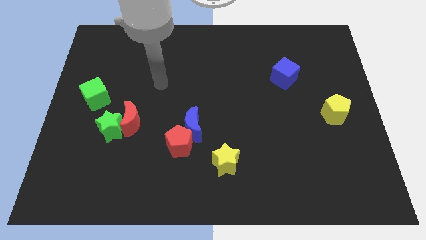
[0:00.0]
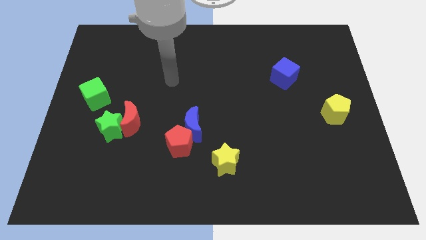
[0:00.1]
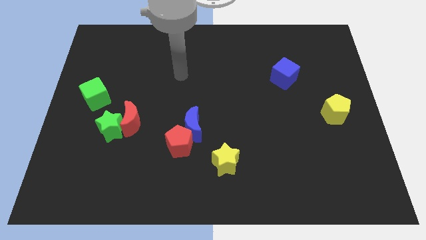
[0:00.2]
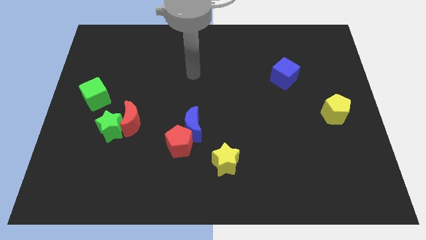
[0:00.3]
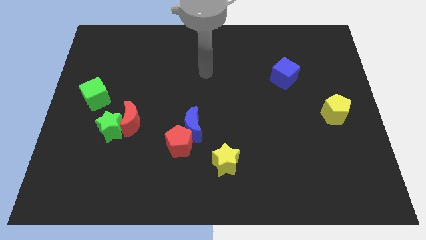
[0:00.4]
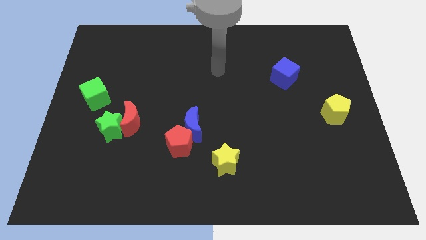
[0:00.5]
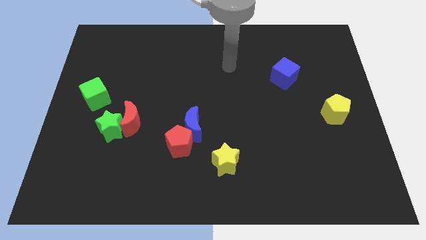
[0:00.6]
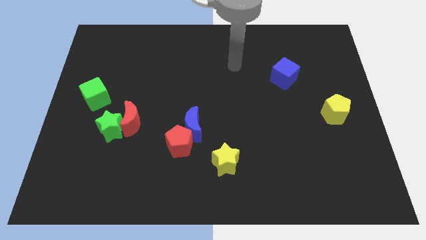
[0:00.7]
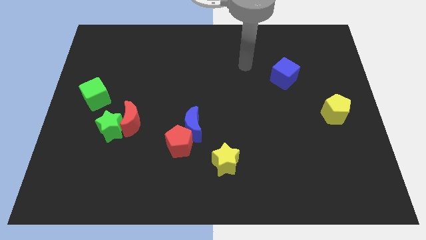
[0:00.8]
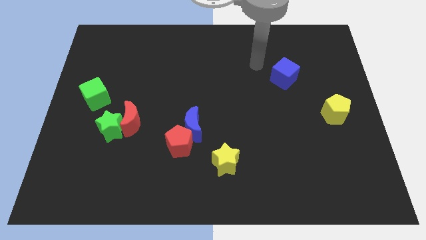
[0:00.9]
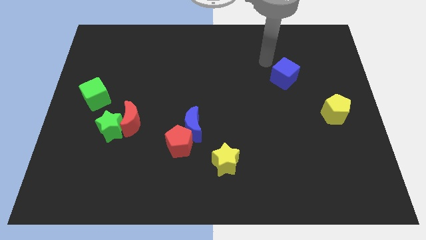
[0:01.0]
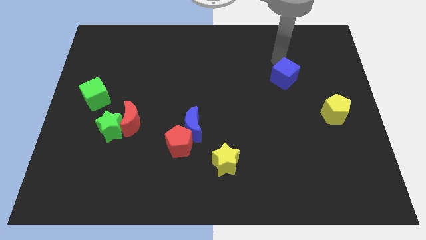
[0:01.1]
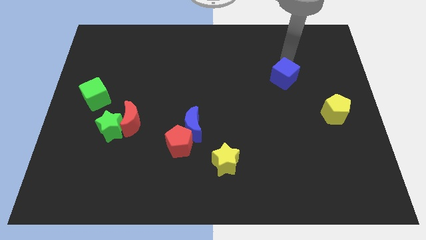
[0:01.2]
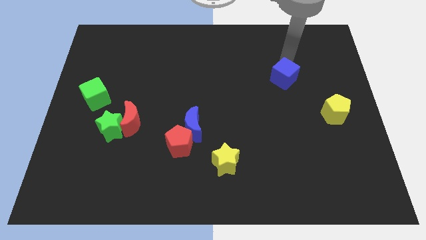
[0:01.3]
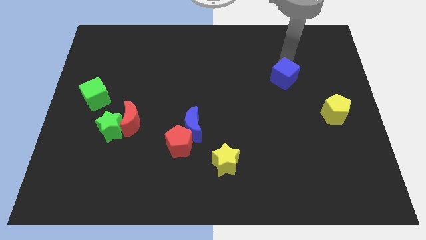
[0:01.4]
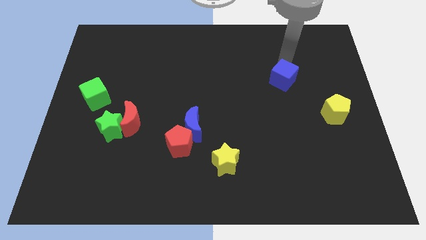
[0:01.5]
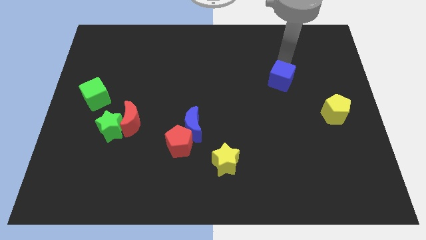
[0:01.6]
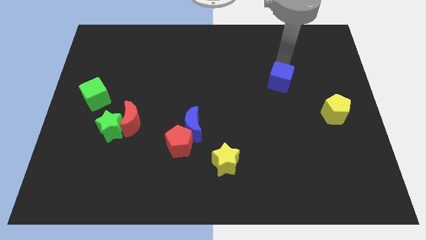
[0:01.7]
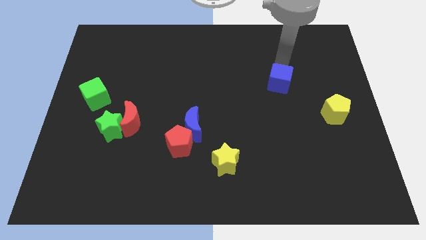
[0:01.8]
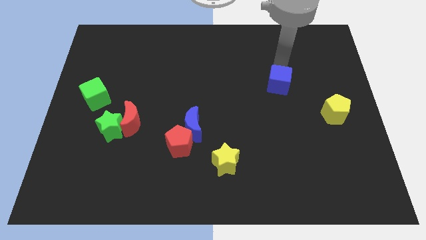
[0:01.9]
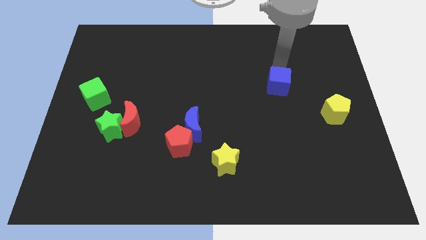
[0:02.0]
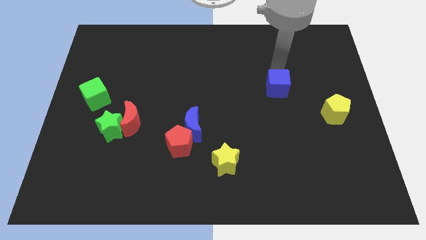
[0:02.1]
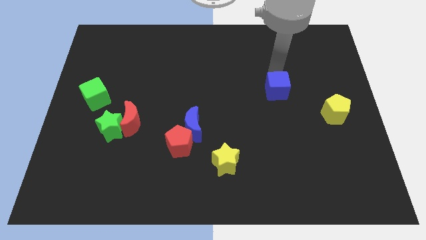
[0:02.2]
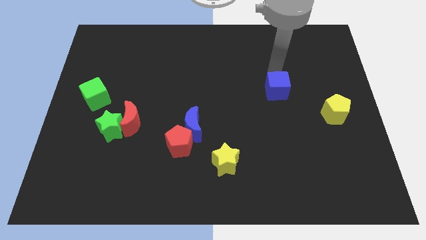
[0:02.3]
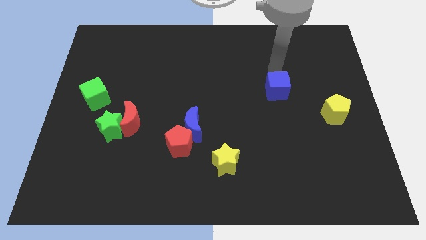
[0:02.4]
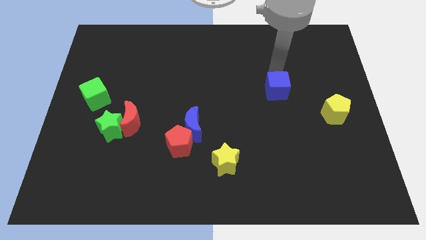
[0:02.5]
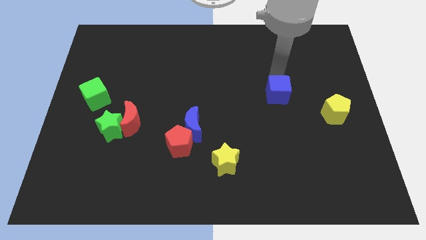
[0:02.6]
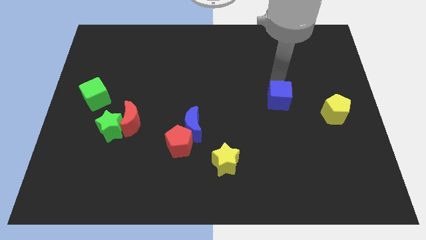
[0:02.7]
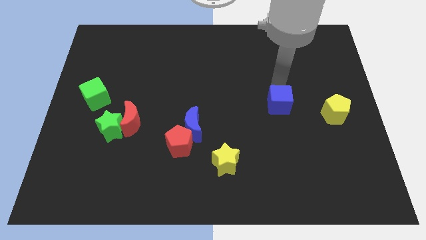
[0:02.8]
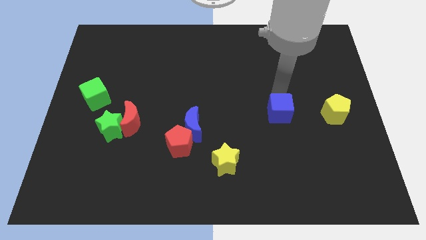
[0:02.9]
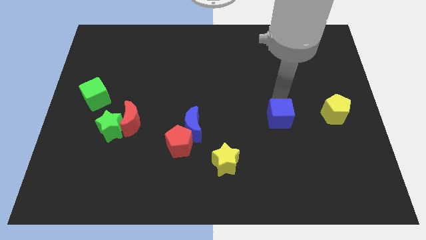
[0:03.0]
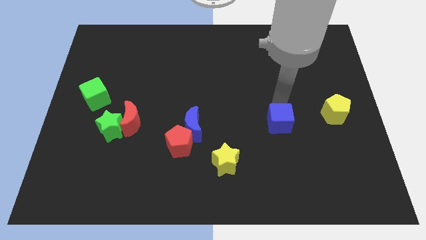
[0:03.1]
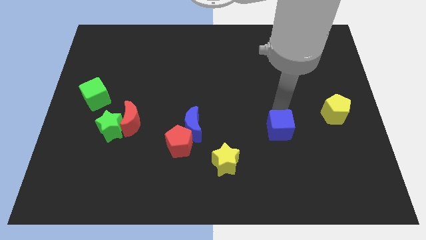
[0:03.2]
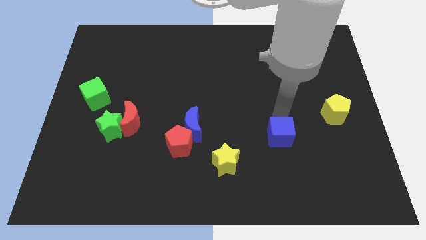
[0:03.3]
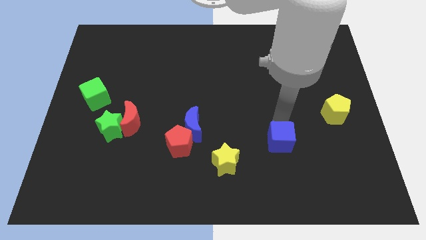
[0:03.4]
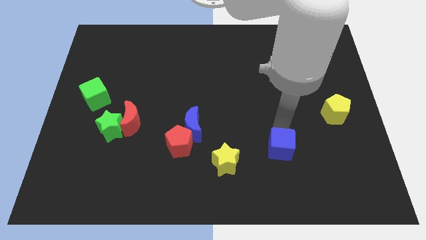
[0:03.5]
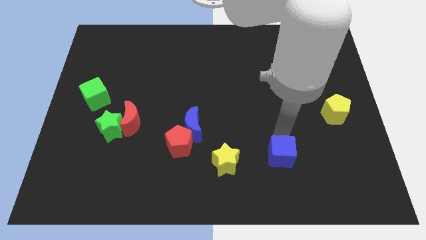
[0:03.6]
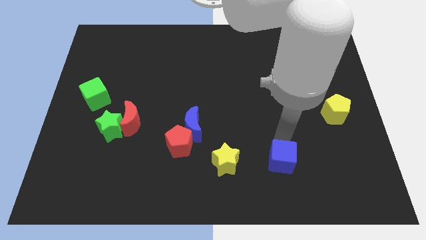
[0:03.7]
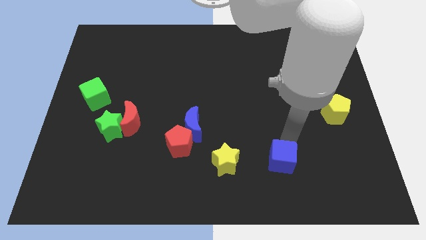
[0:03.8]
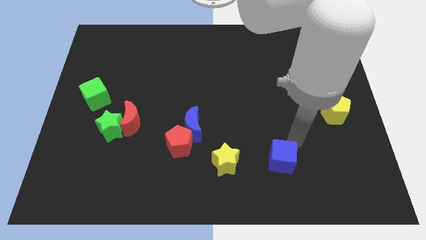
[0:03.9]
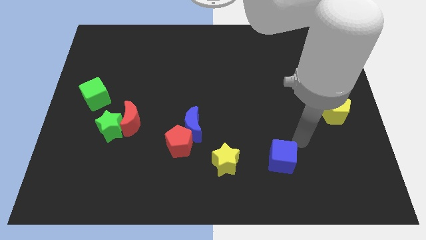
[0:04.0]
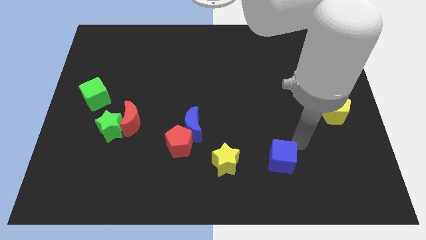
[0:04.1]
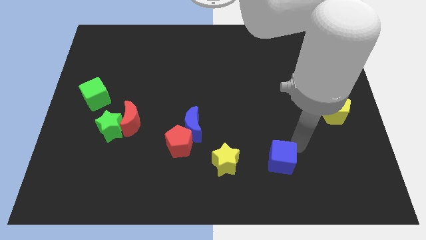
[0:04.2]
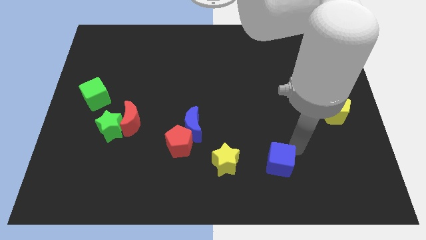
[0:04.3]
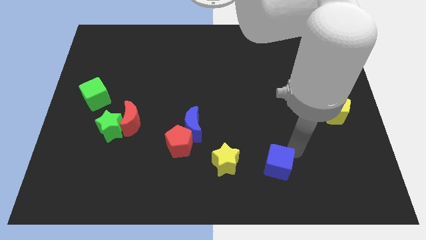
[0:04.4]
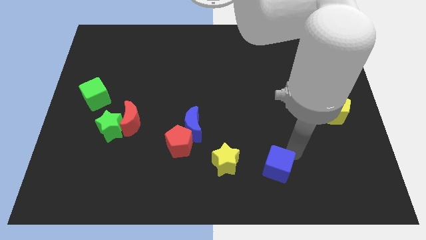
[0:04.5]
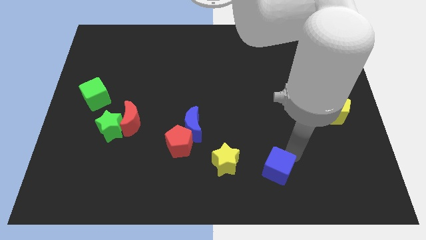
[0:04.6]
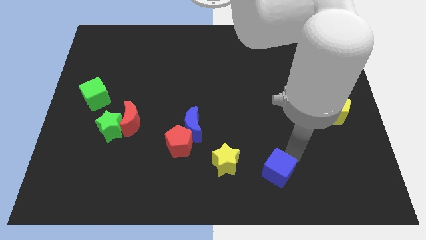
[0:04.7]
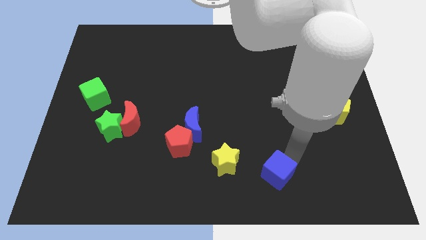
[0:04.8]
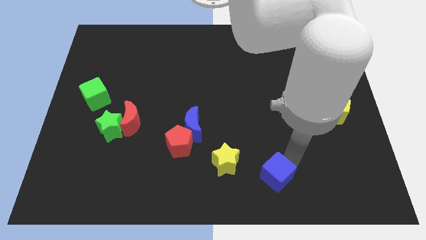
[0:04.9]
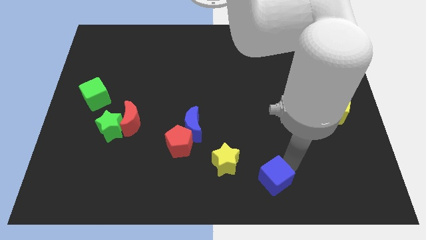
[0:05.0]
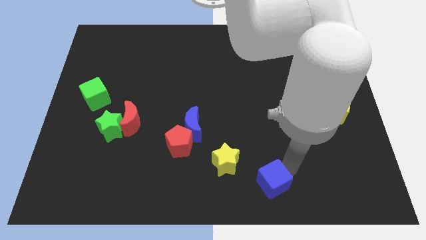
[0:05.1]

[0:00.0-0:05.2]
push the blue cube to the bottom

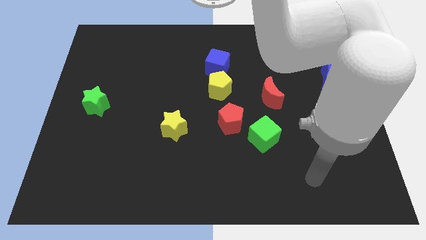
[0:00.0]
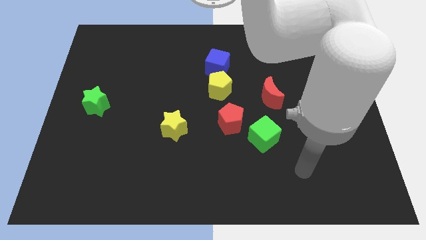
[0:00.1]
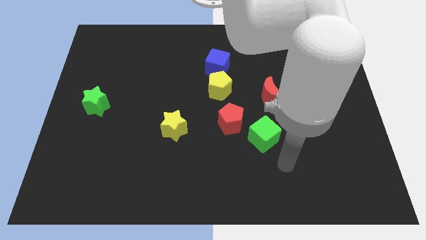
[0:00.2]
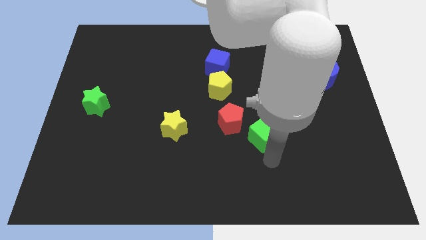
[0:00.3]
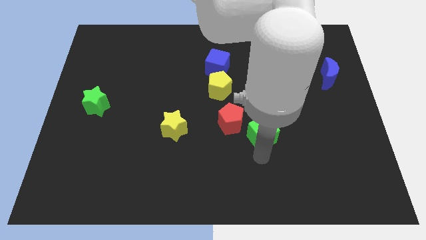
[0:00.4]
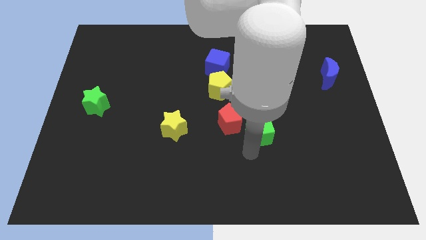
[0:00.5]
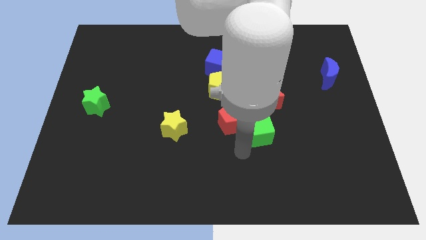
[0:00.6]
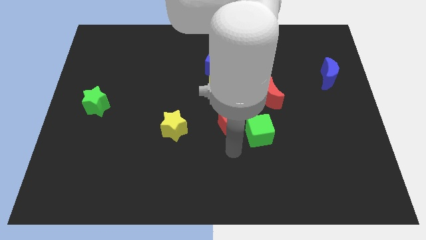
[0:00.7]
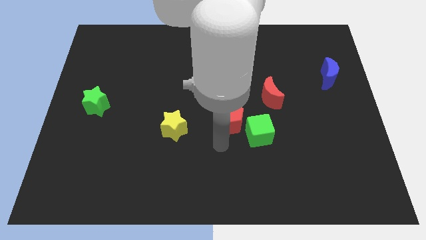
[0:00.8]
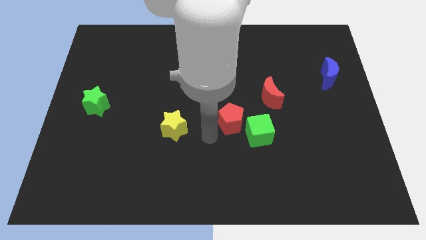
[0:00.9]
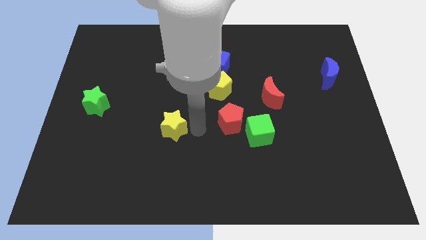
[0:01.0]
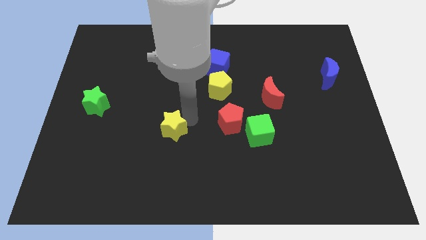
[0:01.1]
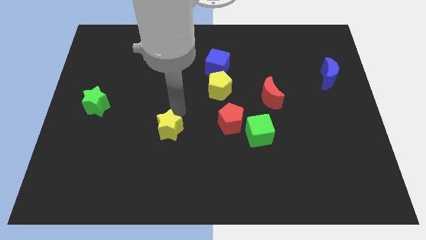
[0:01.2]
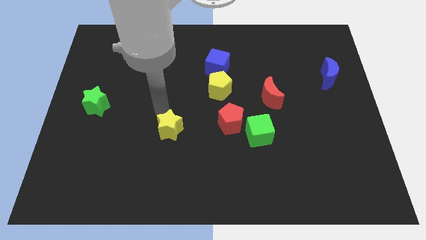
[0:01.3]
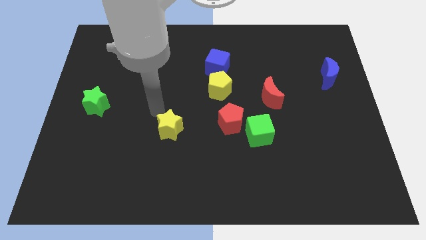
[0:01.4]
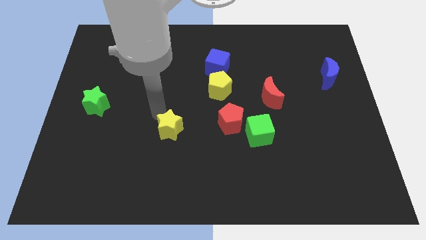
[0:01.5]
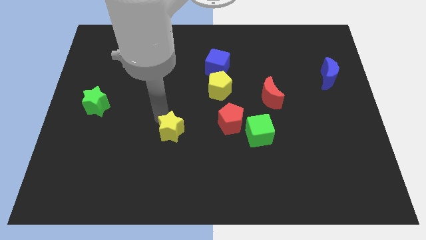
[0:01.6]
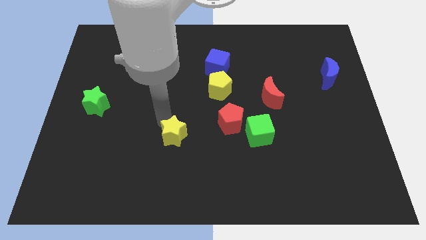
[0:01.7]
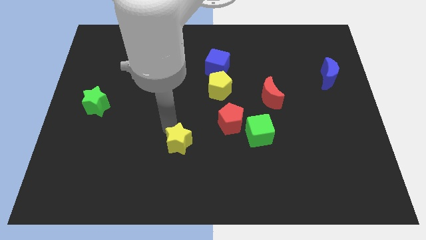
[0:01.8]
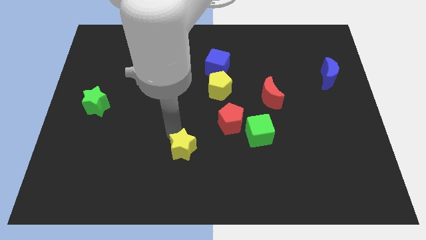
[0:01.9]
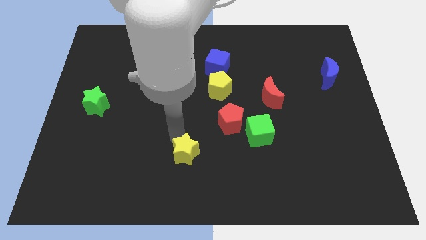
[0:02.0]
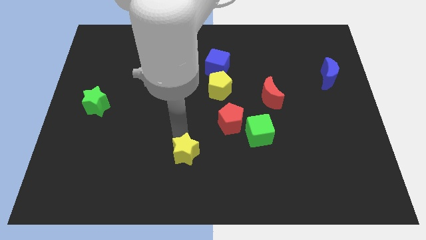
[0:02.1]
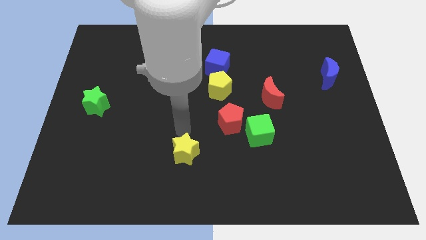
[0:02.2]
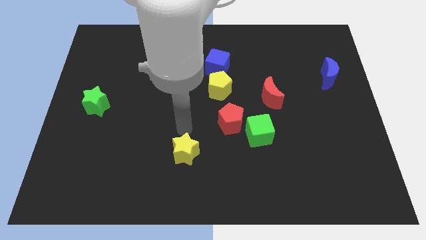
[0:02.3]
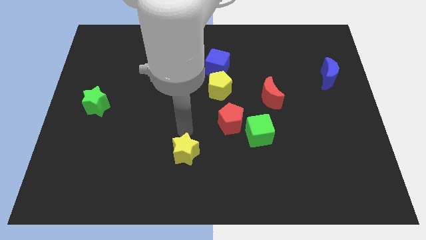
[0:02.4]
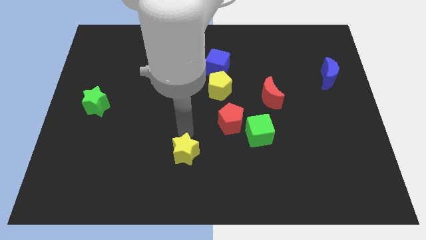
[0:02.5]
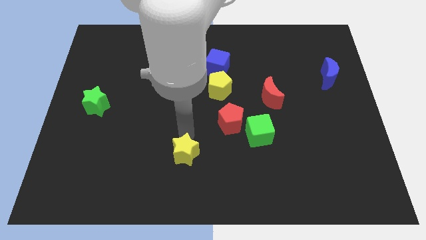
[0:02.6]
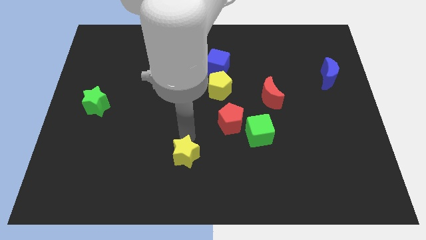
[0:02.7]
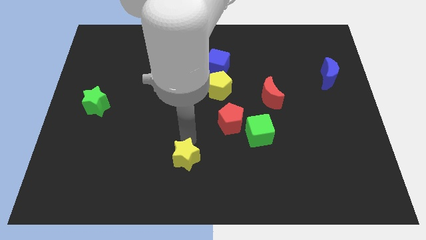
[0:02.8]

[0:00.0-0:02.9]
put the yellow star to the bottom

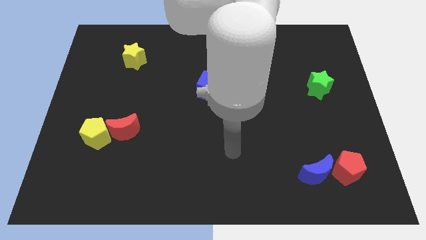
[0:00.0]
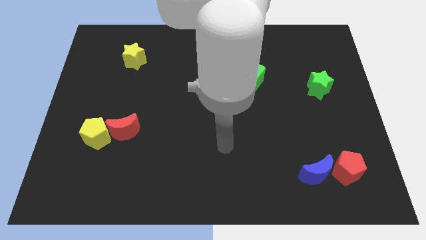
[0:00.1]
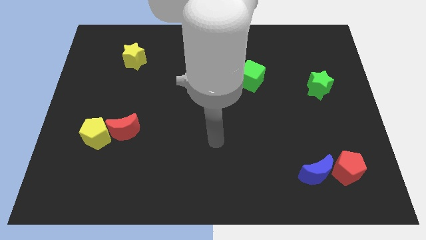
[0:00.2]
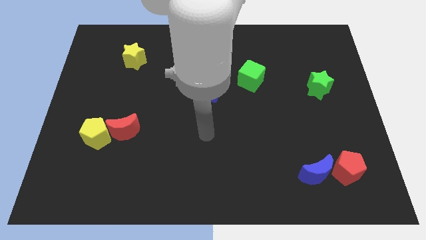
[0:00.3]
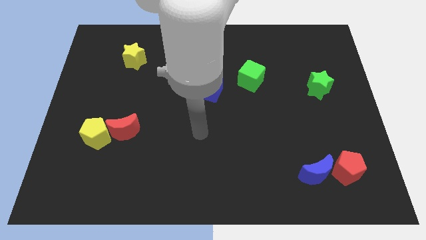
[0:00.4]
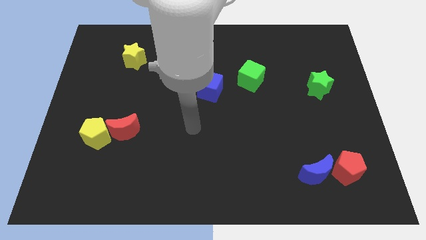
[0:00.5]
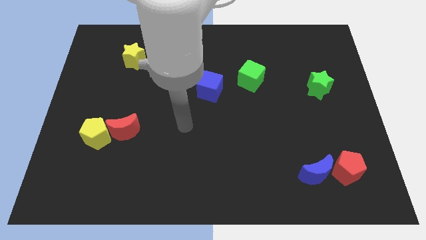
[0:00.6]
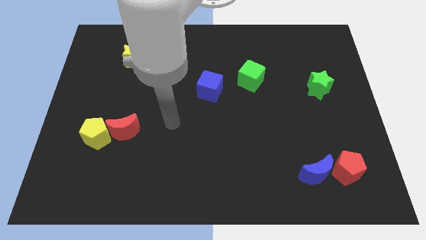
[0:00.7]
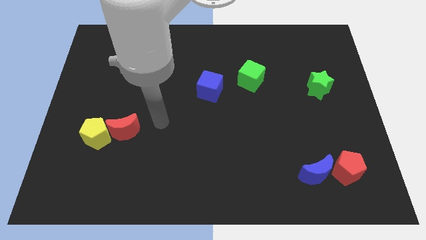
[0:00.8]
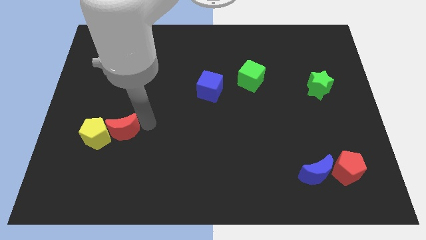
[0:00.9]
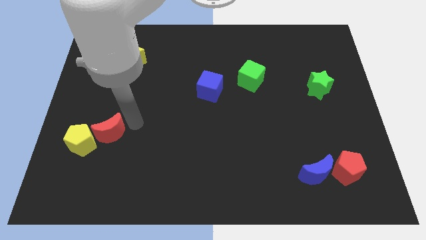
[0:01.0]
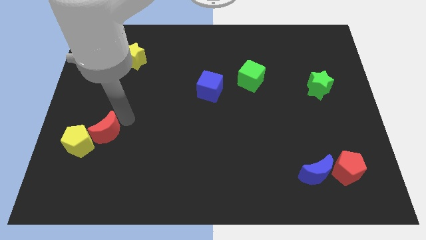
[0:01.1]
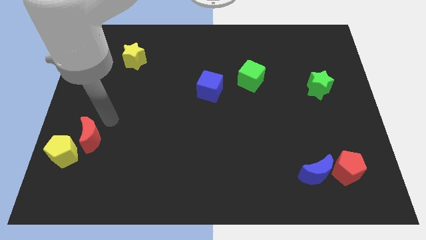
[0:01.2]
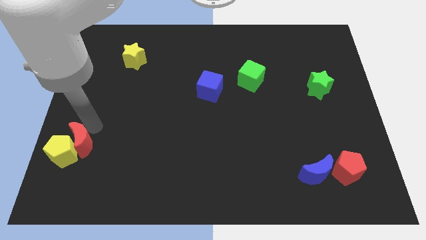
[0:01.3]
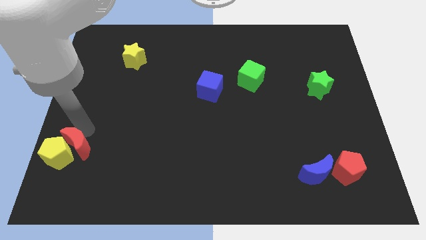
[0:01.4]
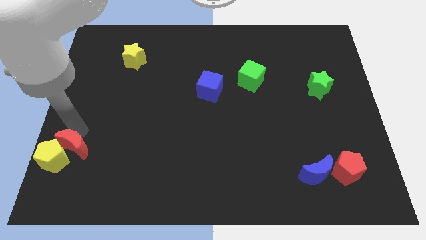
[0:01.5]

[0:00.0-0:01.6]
slide the yellow pentagon to the bottom left of the board
